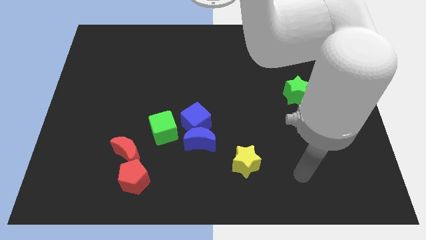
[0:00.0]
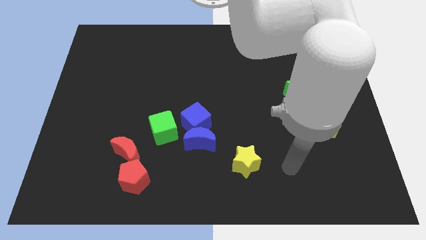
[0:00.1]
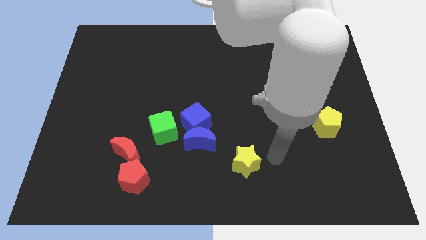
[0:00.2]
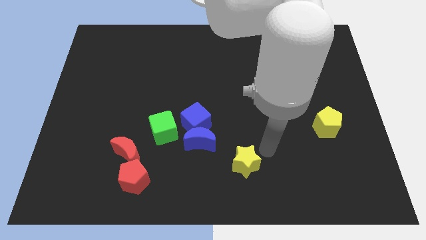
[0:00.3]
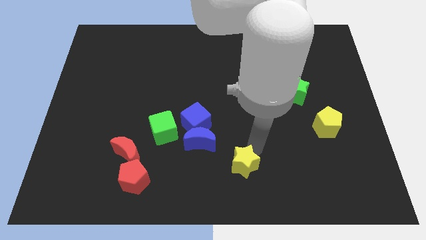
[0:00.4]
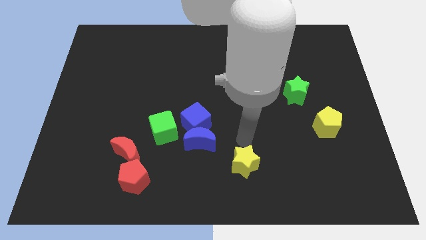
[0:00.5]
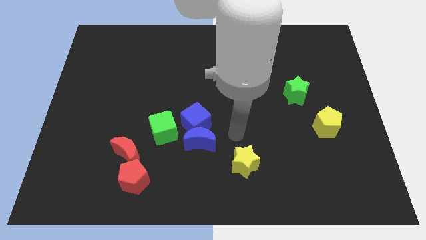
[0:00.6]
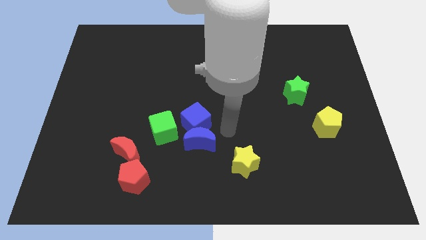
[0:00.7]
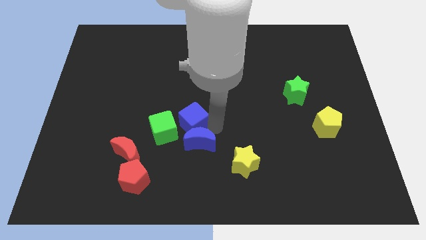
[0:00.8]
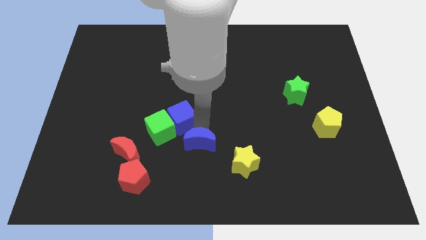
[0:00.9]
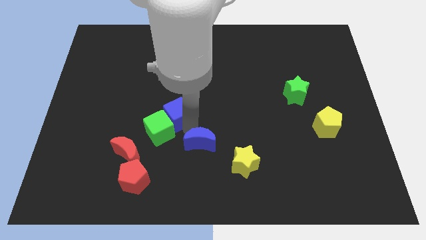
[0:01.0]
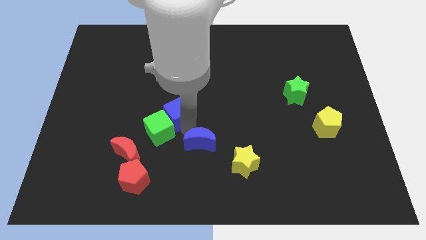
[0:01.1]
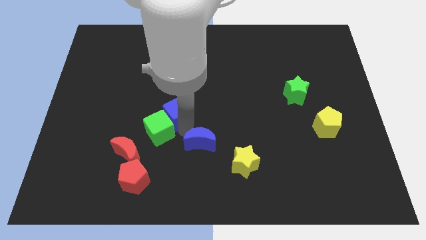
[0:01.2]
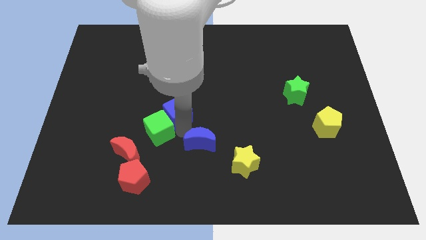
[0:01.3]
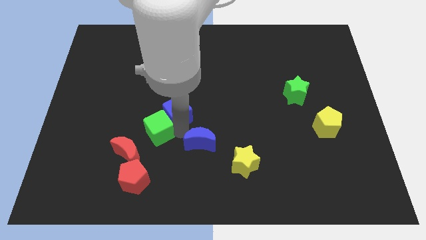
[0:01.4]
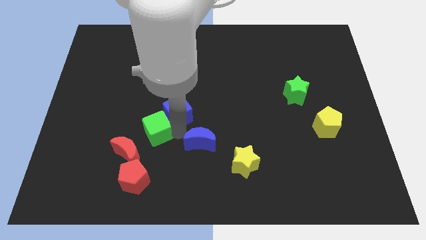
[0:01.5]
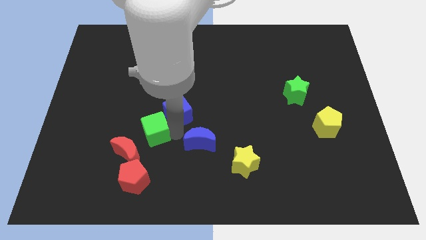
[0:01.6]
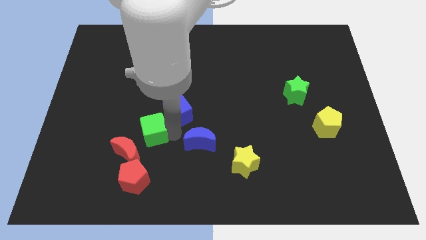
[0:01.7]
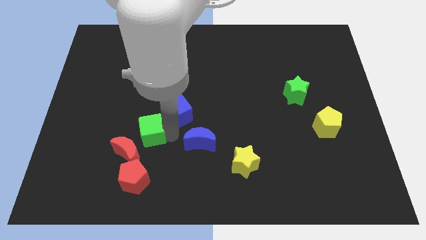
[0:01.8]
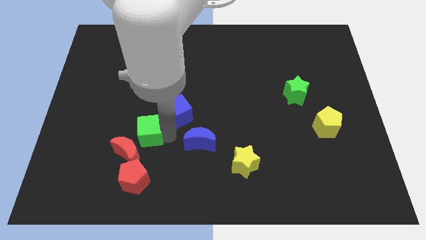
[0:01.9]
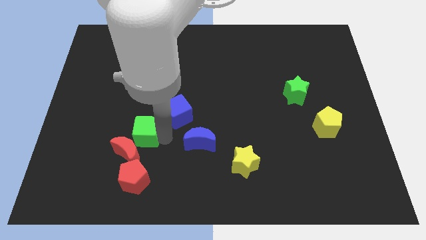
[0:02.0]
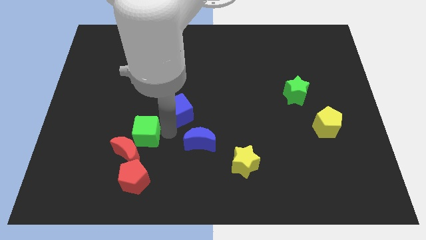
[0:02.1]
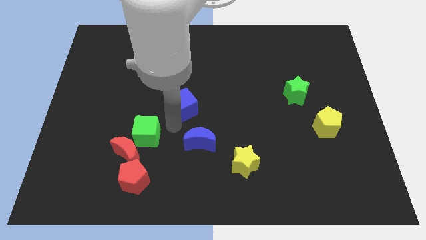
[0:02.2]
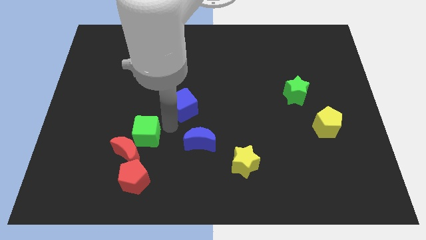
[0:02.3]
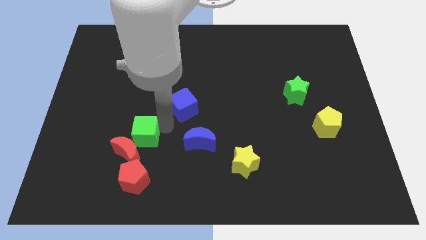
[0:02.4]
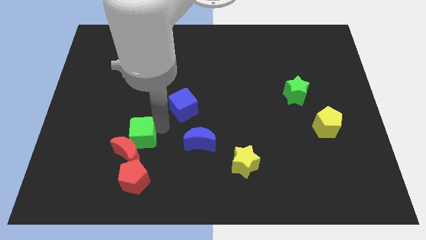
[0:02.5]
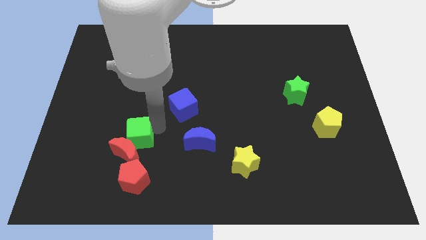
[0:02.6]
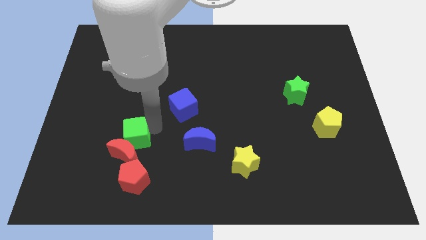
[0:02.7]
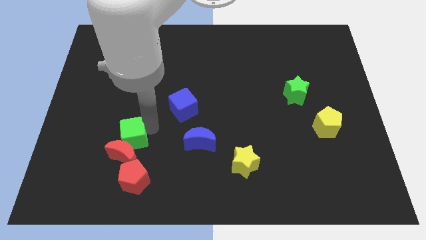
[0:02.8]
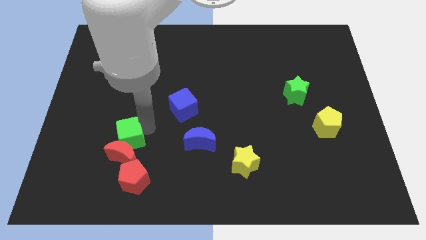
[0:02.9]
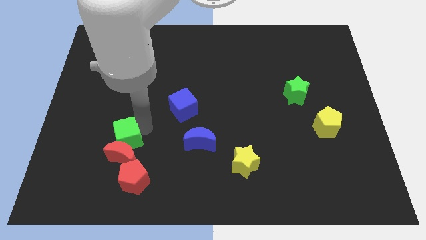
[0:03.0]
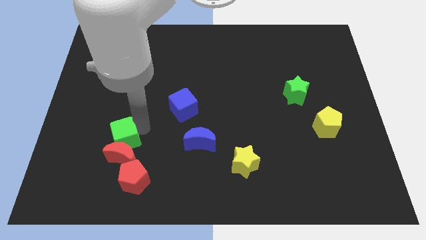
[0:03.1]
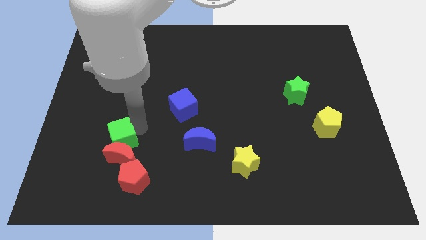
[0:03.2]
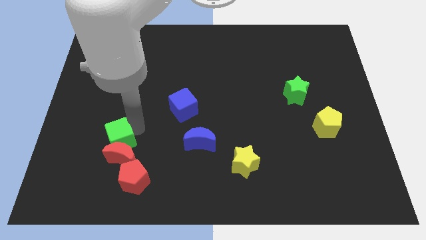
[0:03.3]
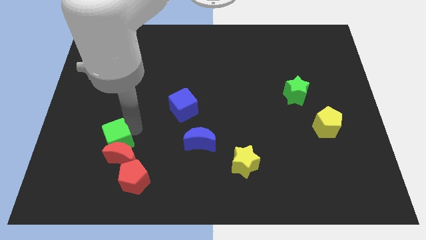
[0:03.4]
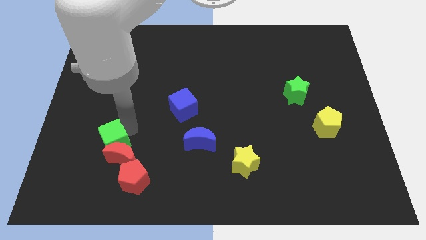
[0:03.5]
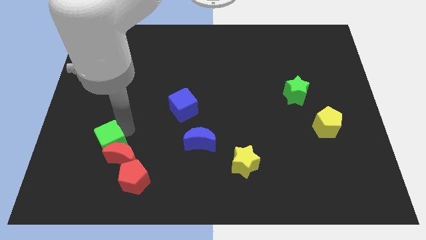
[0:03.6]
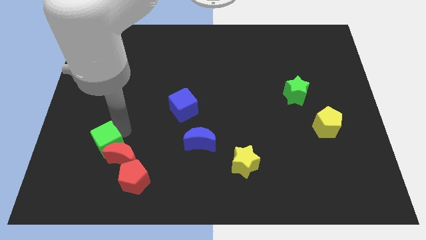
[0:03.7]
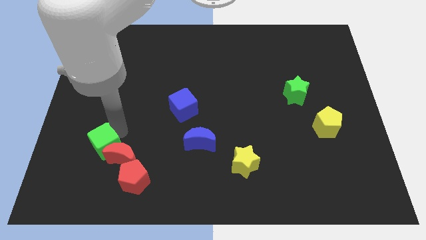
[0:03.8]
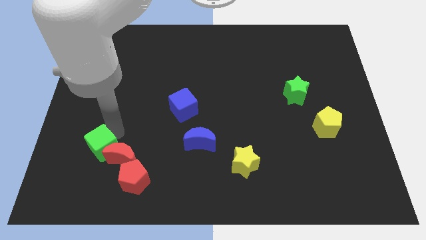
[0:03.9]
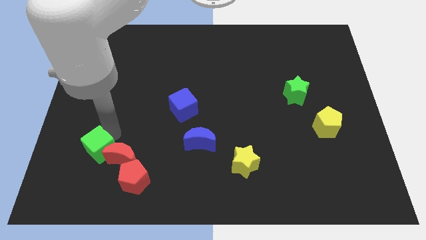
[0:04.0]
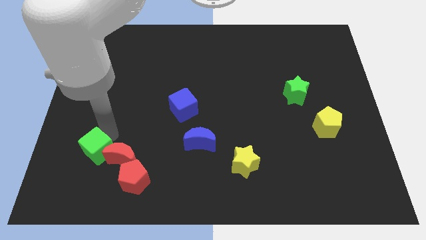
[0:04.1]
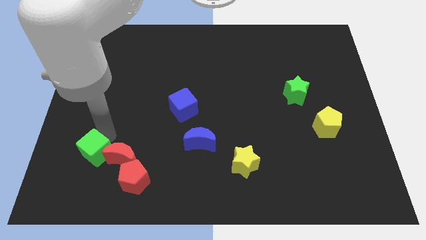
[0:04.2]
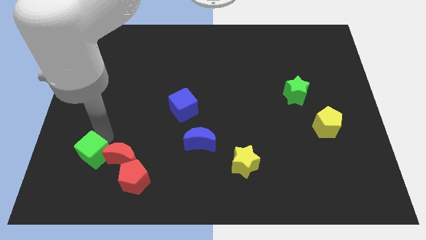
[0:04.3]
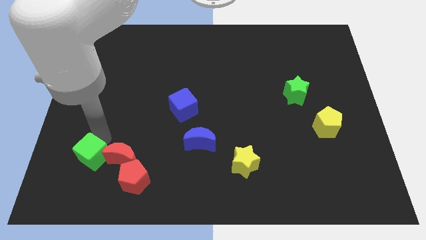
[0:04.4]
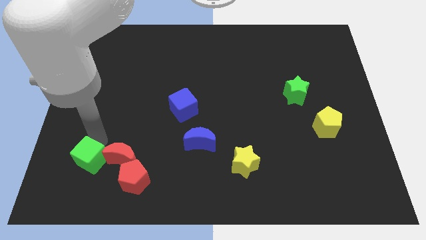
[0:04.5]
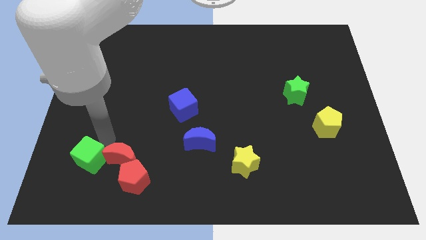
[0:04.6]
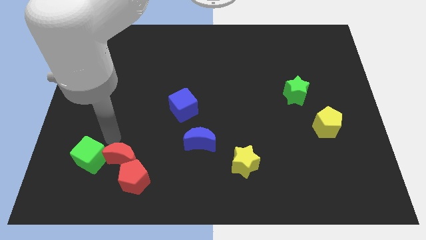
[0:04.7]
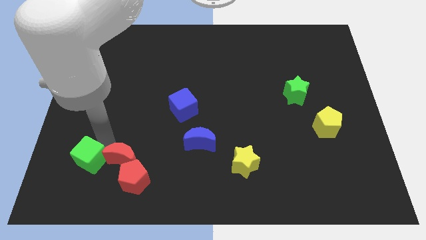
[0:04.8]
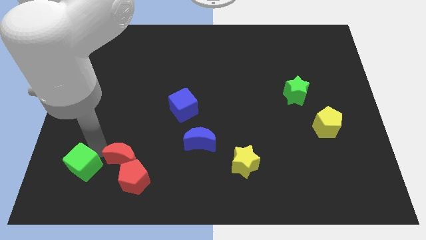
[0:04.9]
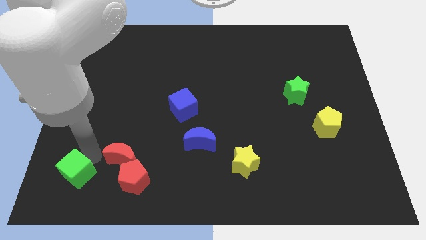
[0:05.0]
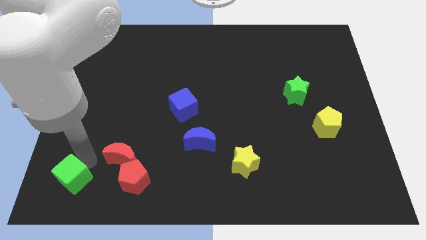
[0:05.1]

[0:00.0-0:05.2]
move the green cube to the bottom left of the board

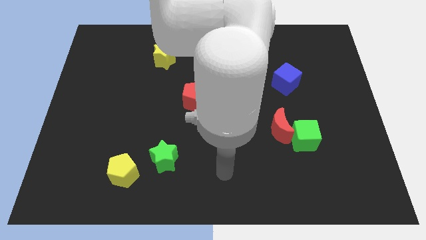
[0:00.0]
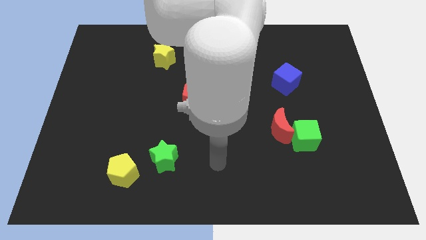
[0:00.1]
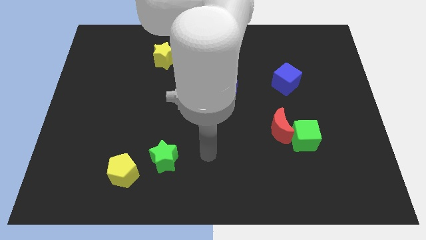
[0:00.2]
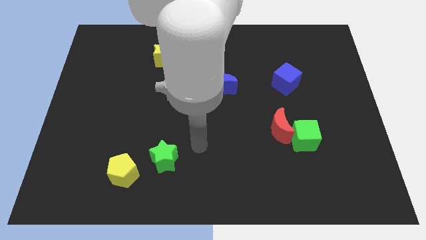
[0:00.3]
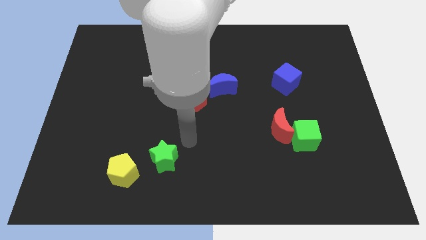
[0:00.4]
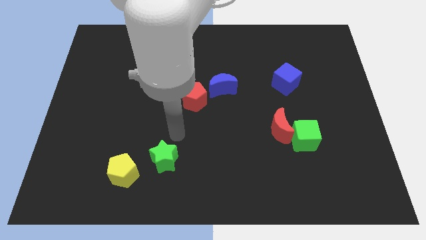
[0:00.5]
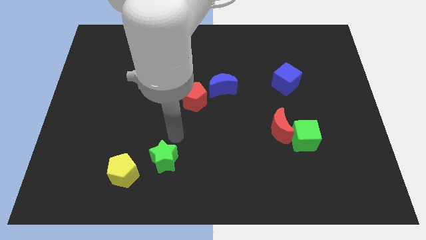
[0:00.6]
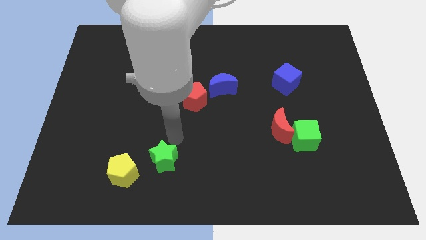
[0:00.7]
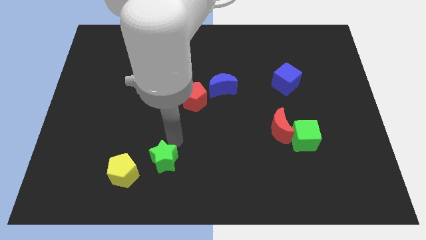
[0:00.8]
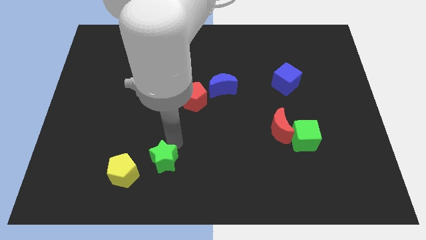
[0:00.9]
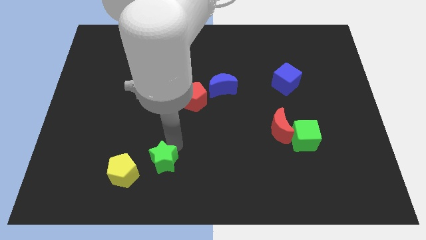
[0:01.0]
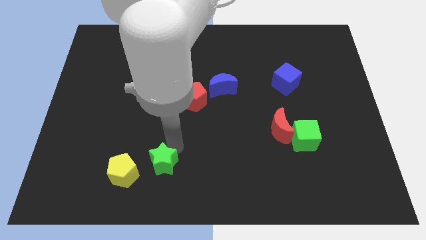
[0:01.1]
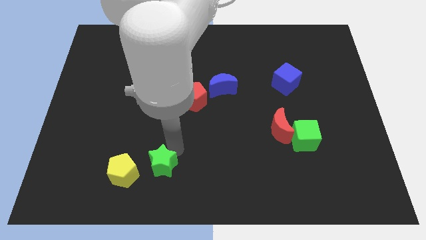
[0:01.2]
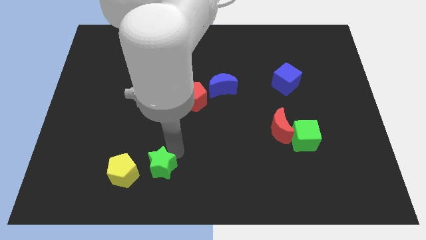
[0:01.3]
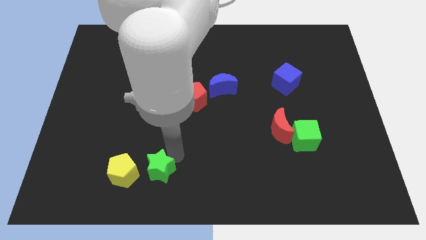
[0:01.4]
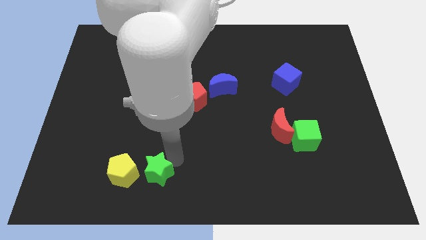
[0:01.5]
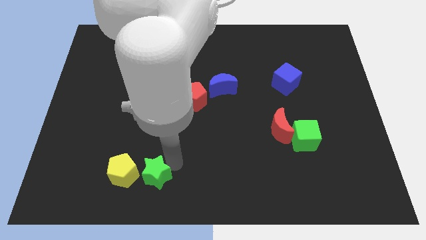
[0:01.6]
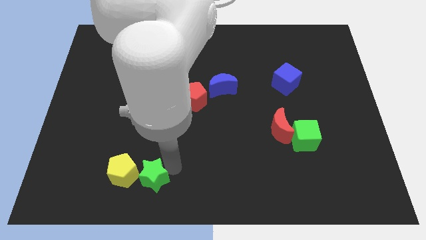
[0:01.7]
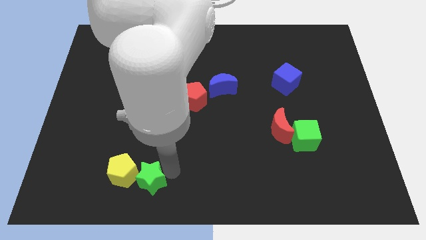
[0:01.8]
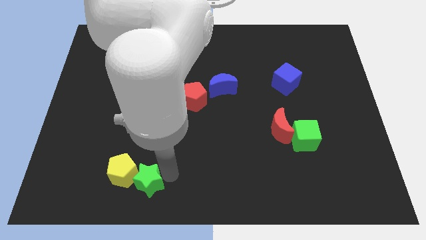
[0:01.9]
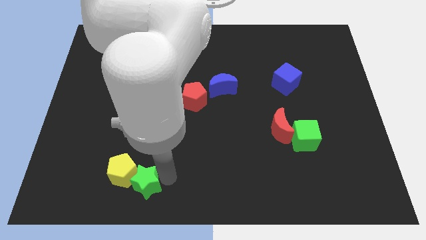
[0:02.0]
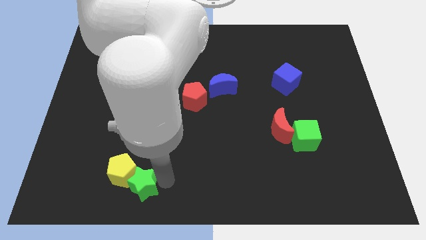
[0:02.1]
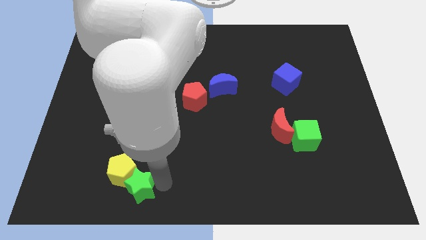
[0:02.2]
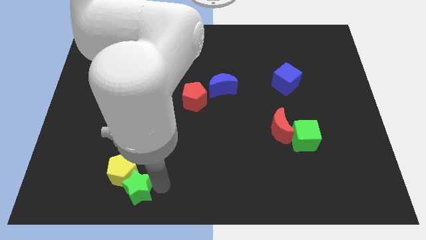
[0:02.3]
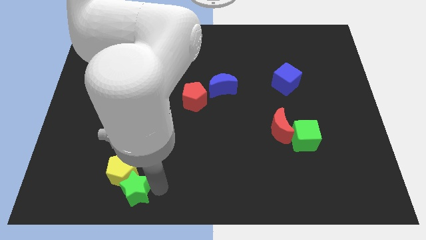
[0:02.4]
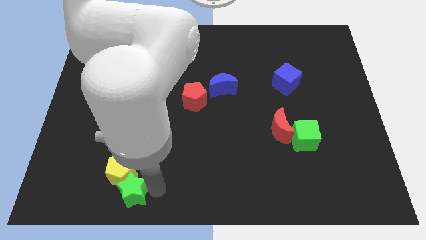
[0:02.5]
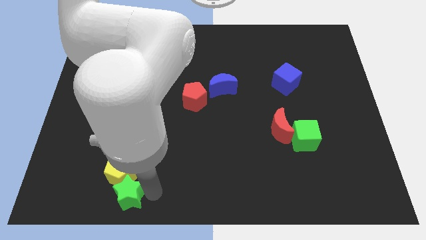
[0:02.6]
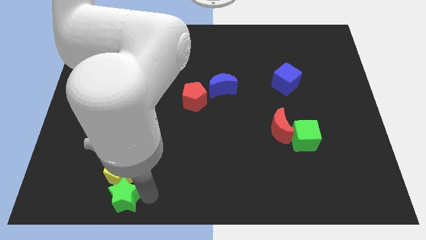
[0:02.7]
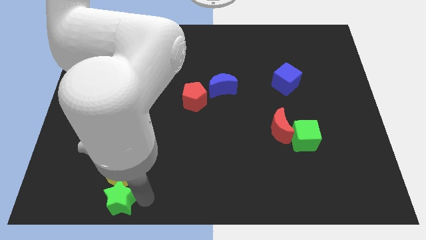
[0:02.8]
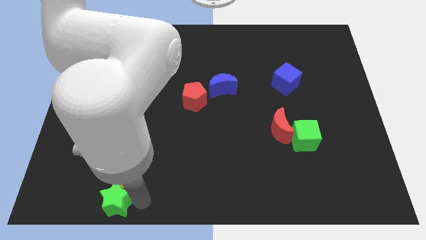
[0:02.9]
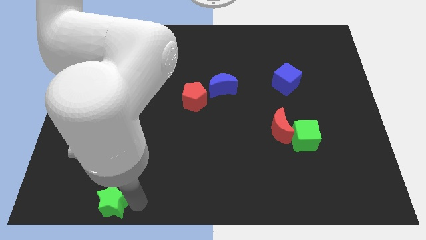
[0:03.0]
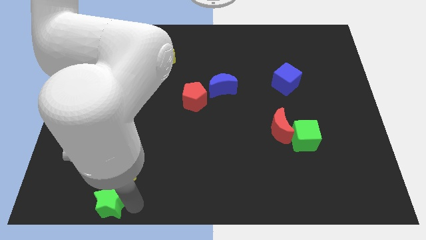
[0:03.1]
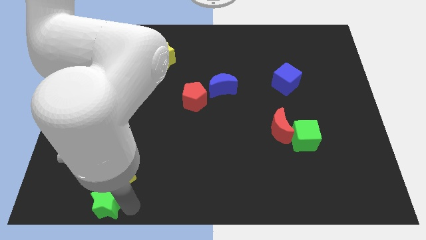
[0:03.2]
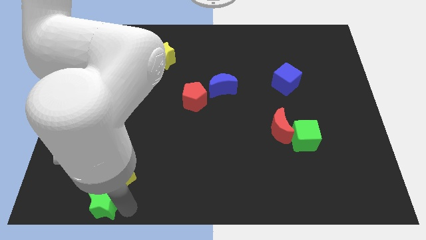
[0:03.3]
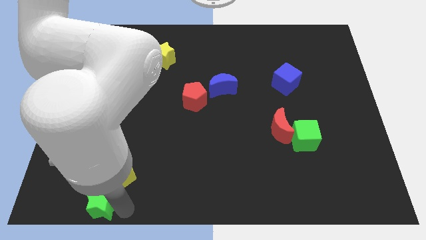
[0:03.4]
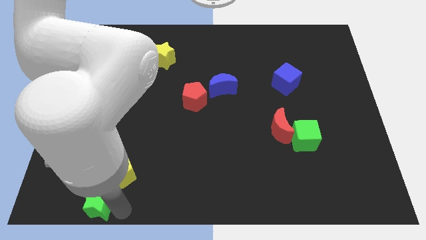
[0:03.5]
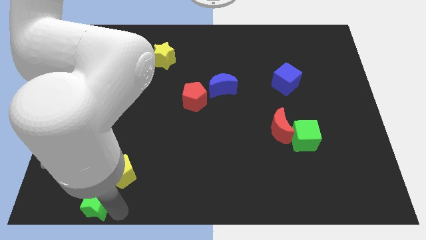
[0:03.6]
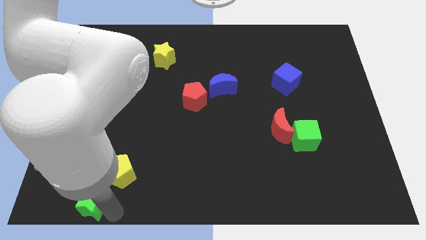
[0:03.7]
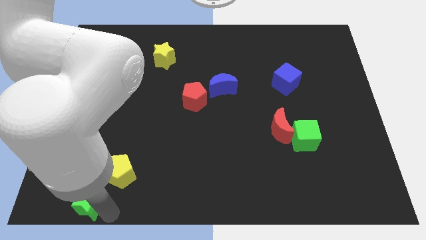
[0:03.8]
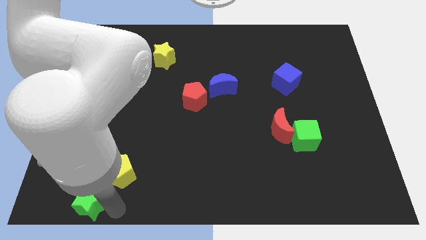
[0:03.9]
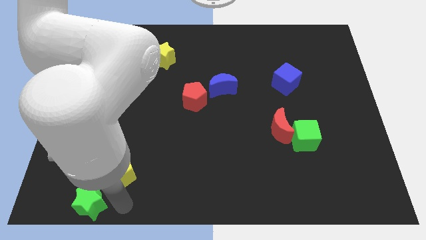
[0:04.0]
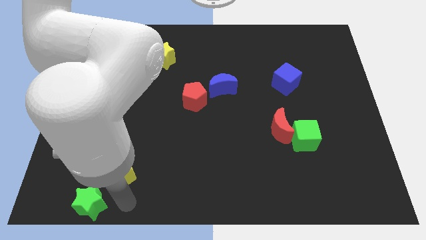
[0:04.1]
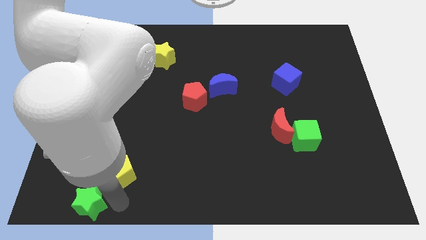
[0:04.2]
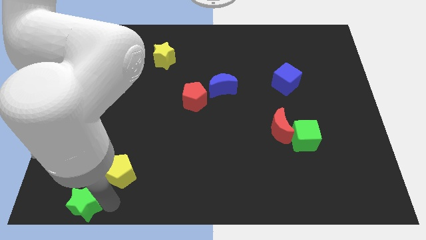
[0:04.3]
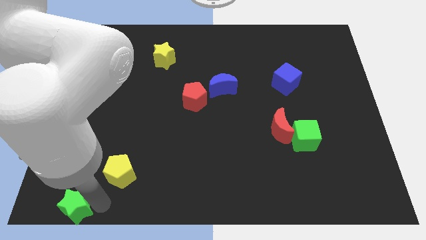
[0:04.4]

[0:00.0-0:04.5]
move the green star to the bottom left
